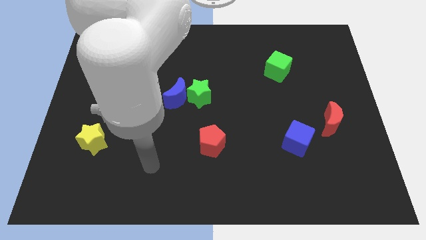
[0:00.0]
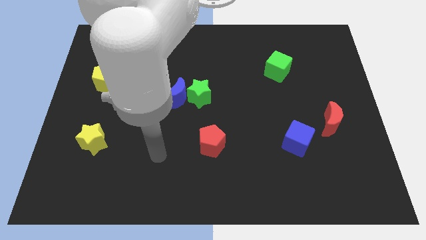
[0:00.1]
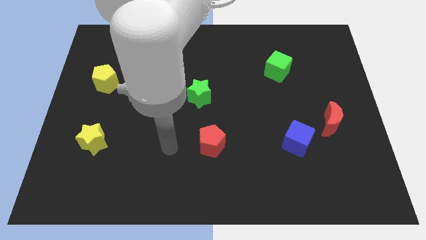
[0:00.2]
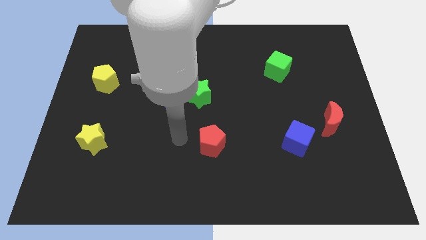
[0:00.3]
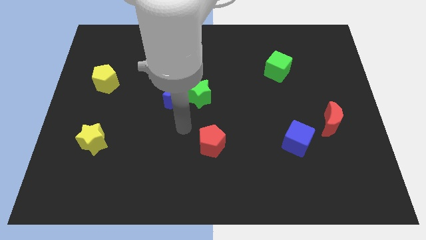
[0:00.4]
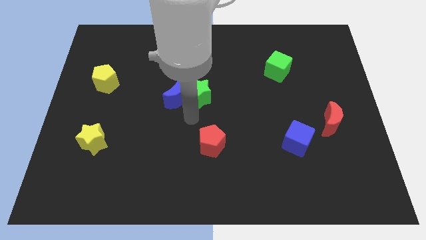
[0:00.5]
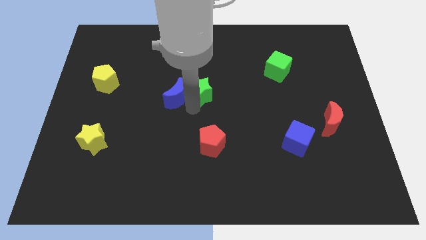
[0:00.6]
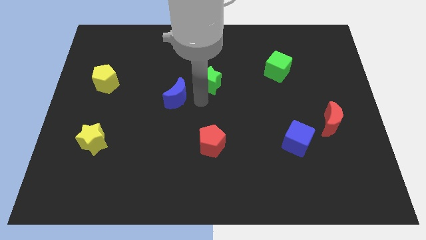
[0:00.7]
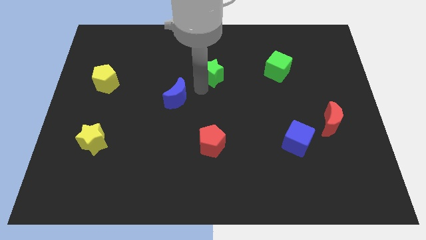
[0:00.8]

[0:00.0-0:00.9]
pull the blue moon apart from the green star

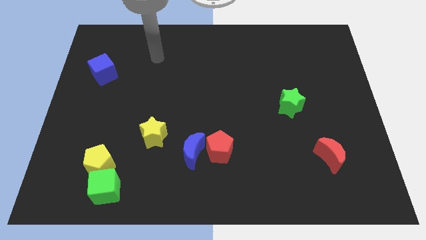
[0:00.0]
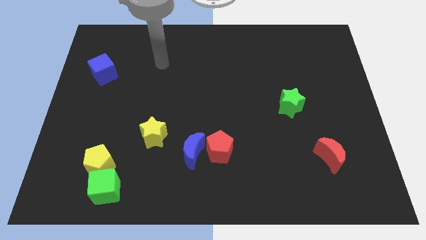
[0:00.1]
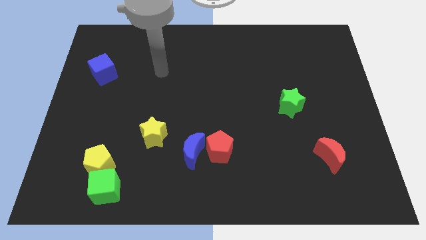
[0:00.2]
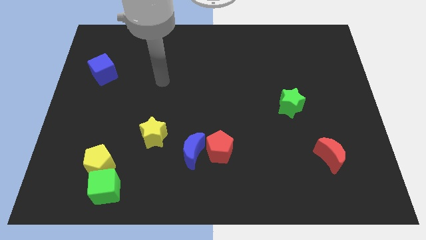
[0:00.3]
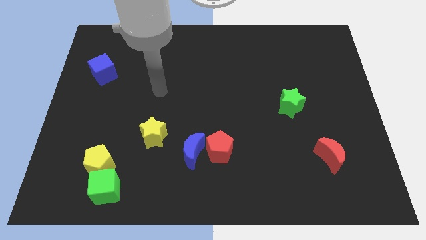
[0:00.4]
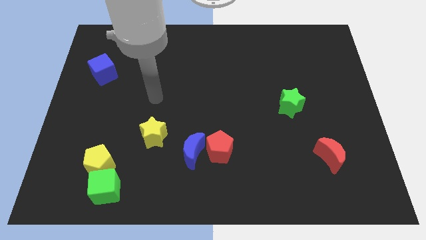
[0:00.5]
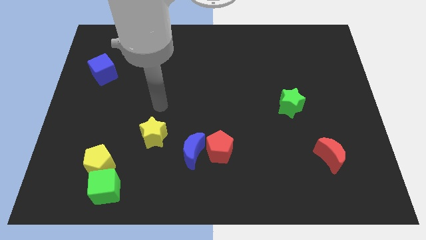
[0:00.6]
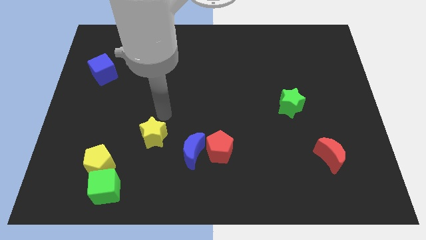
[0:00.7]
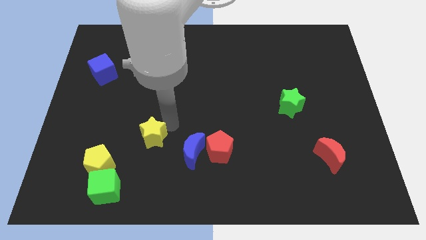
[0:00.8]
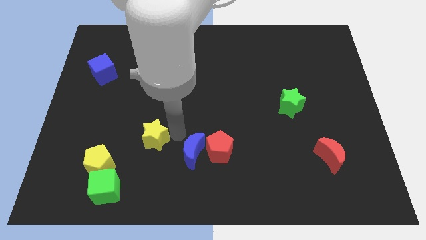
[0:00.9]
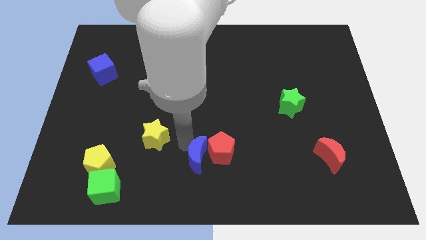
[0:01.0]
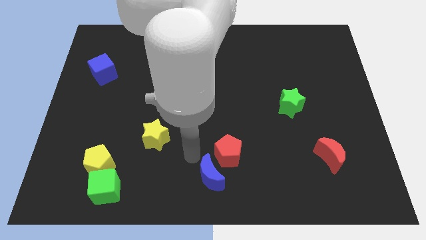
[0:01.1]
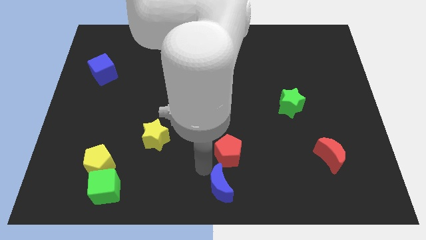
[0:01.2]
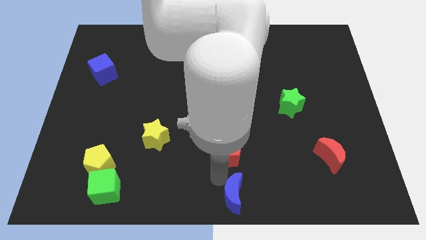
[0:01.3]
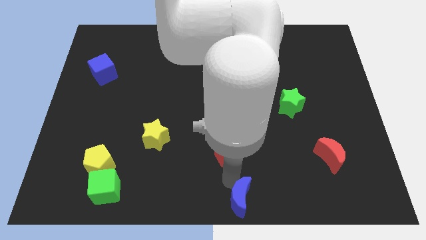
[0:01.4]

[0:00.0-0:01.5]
separate the red pentagon from the blue moon

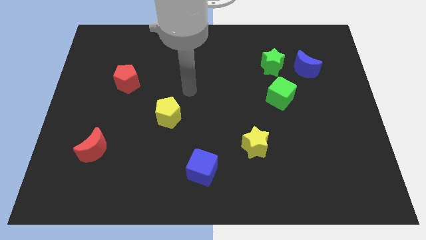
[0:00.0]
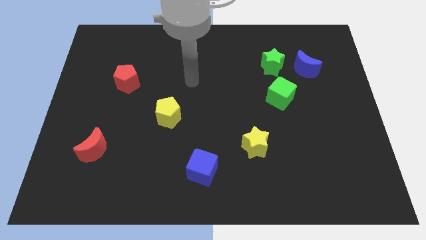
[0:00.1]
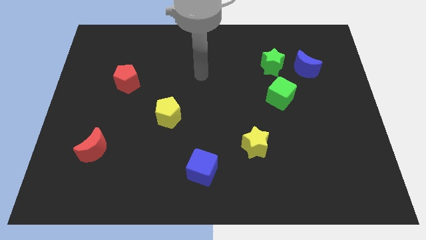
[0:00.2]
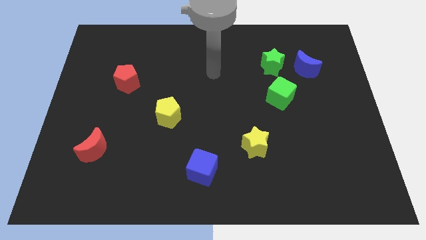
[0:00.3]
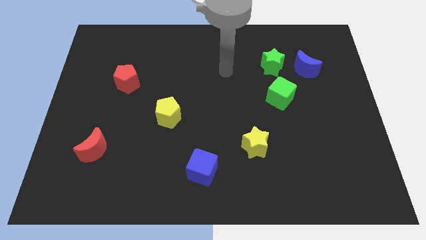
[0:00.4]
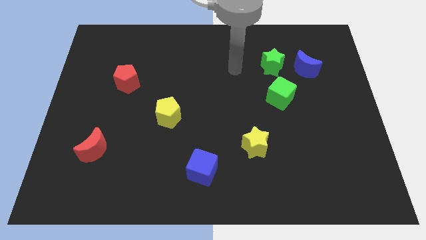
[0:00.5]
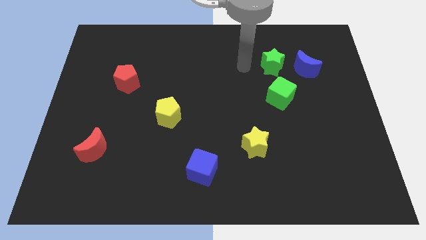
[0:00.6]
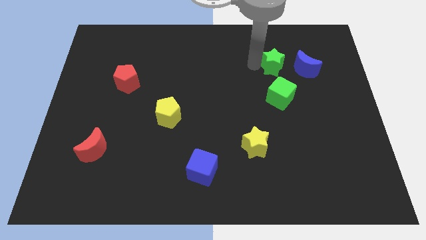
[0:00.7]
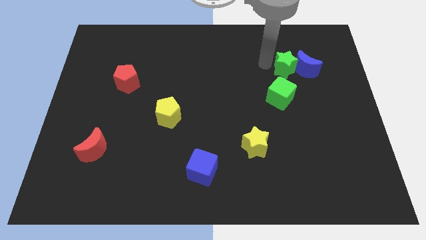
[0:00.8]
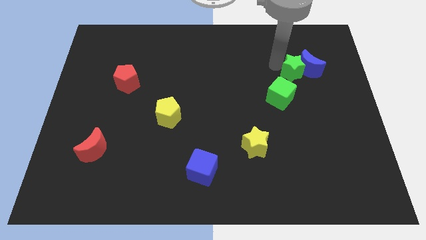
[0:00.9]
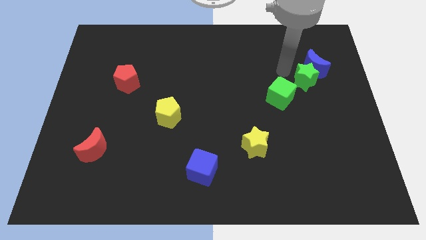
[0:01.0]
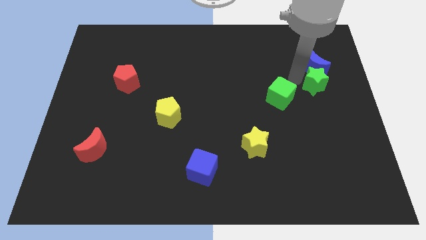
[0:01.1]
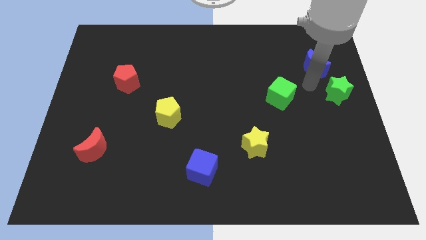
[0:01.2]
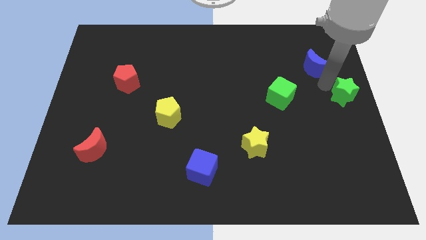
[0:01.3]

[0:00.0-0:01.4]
separate the blue moon from the green star

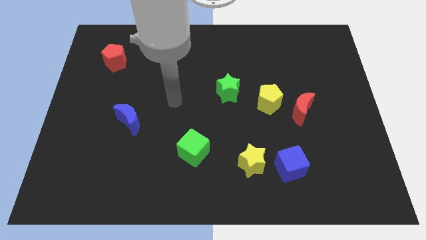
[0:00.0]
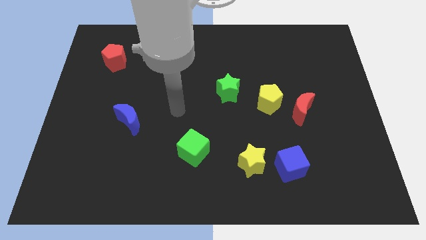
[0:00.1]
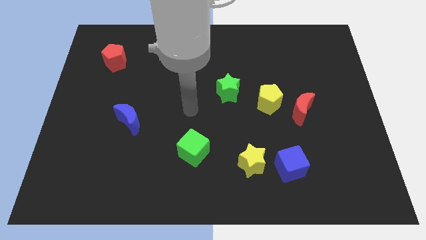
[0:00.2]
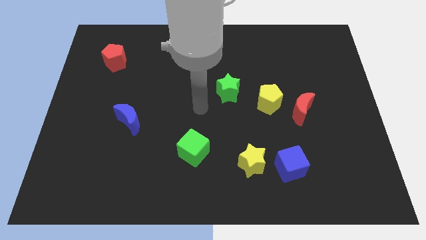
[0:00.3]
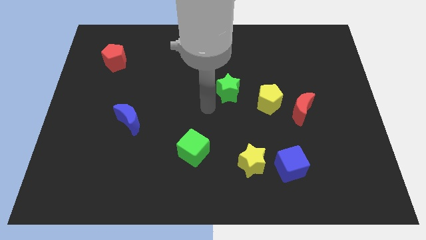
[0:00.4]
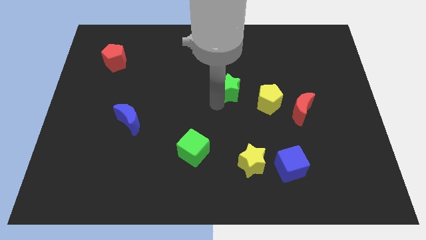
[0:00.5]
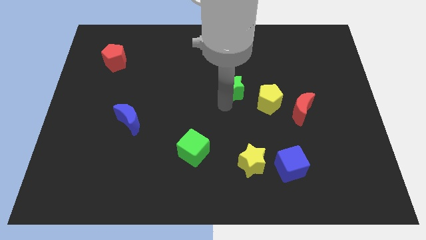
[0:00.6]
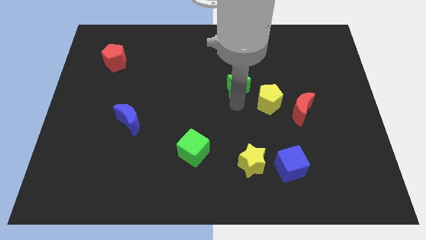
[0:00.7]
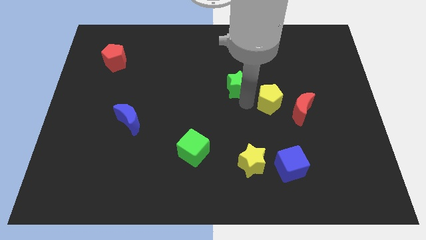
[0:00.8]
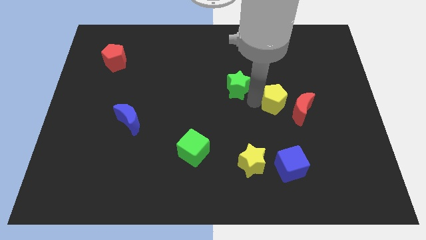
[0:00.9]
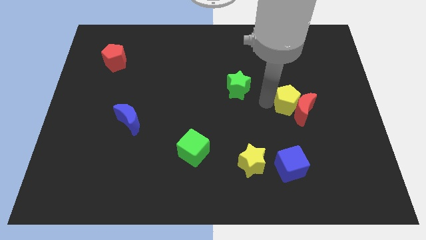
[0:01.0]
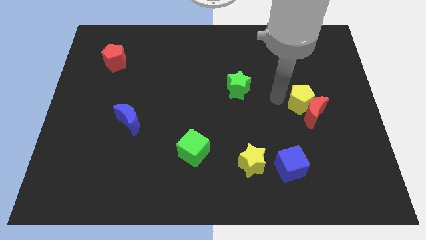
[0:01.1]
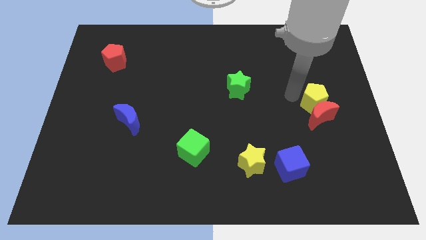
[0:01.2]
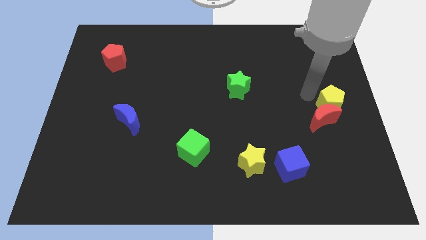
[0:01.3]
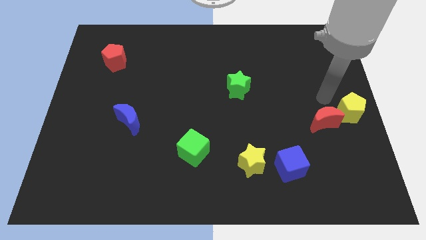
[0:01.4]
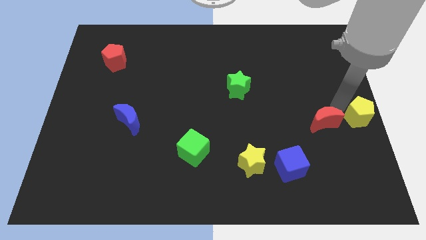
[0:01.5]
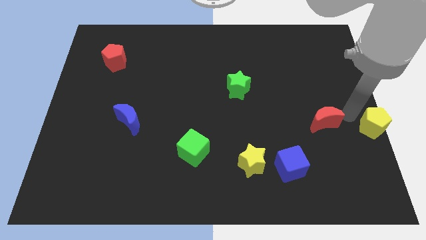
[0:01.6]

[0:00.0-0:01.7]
pull the red moon apart from the yellow pentagon

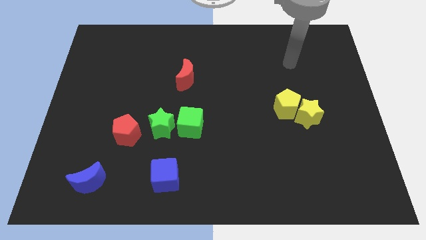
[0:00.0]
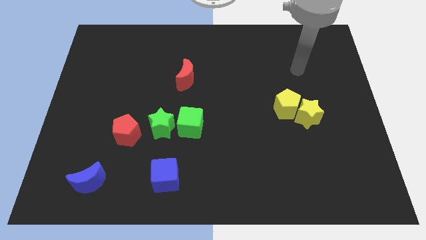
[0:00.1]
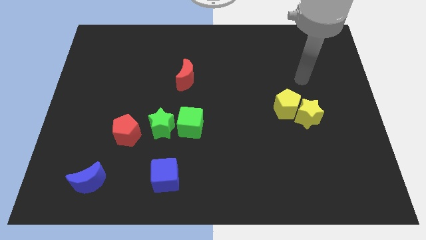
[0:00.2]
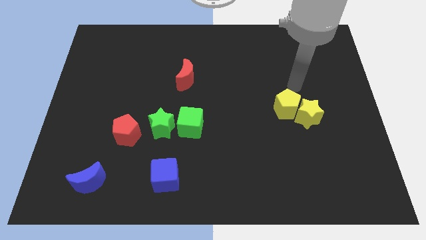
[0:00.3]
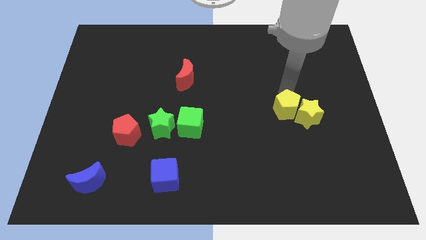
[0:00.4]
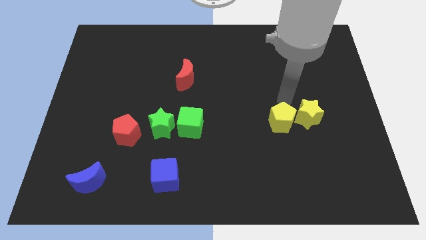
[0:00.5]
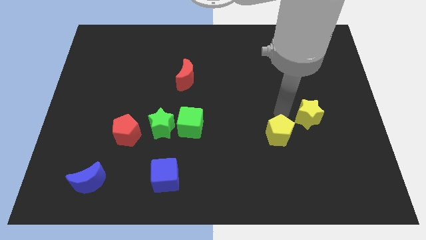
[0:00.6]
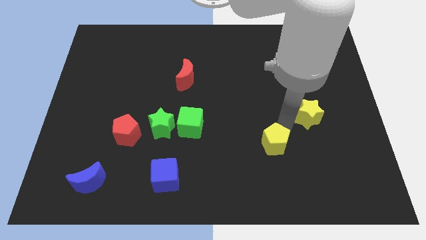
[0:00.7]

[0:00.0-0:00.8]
separate the yellow star from the yellow pentagon

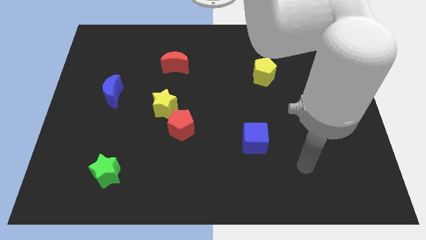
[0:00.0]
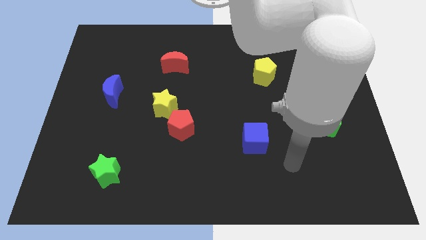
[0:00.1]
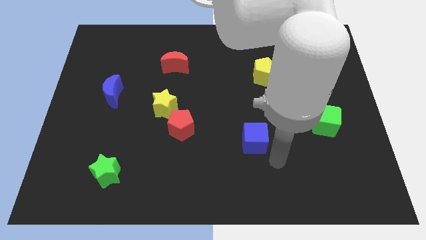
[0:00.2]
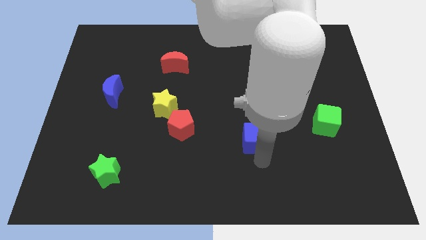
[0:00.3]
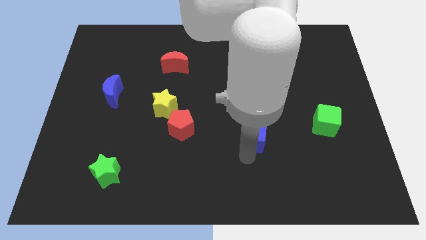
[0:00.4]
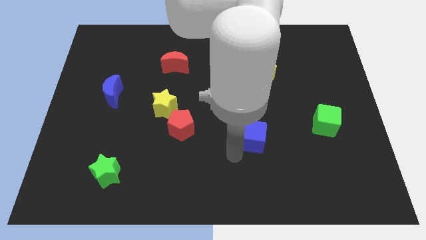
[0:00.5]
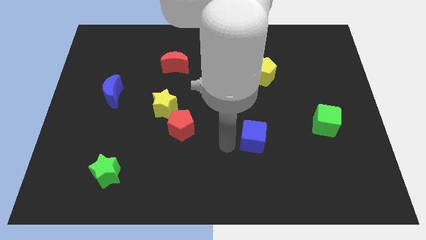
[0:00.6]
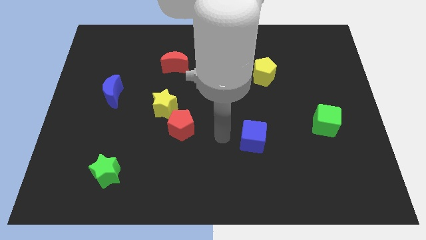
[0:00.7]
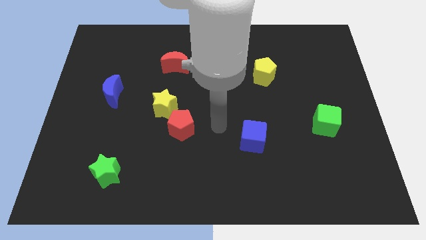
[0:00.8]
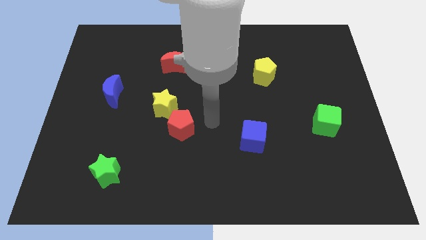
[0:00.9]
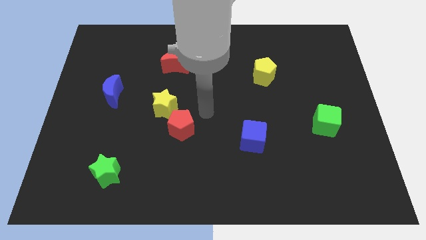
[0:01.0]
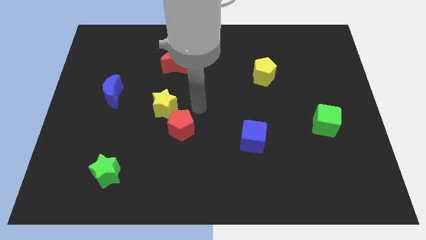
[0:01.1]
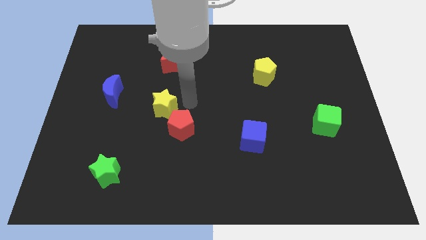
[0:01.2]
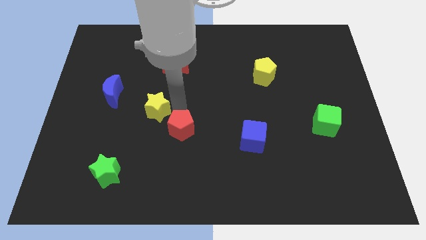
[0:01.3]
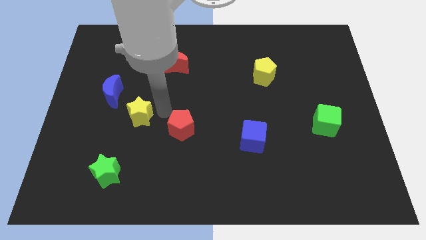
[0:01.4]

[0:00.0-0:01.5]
separate the red pentagon from the yellow star

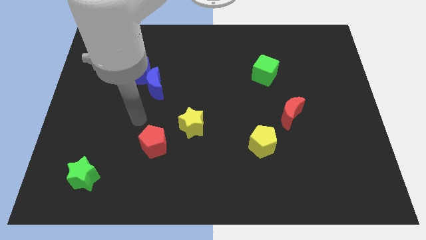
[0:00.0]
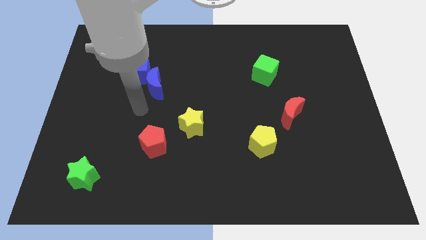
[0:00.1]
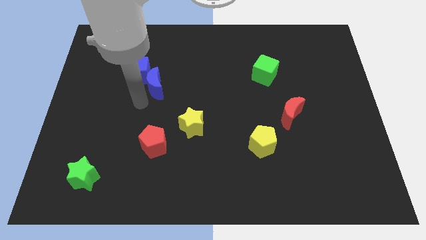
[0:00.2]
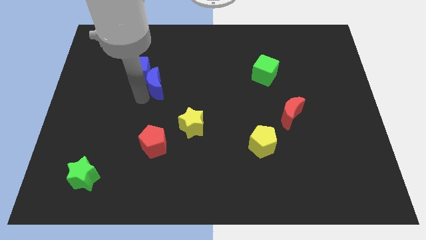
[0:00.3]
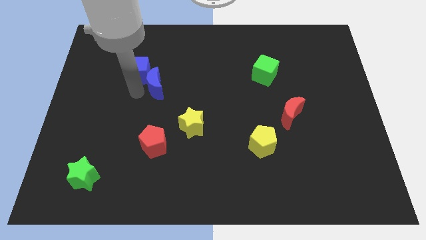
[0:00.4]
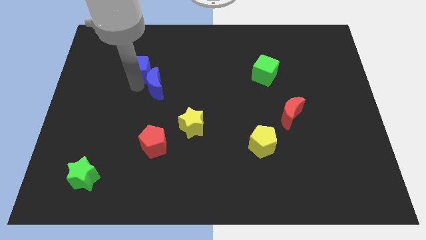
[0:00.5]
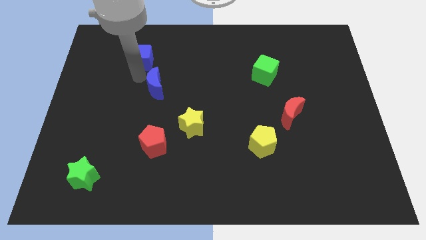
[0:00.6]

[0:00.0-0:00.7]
separate the blue moon from the blue cube

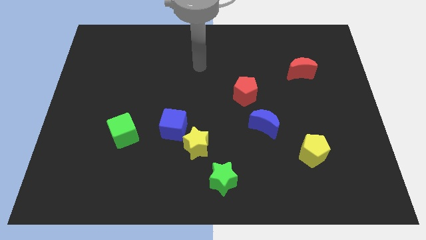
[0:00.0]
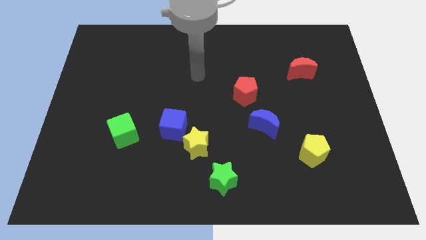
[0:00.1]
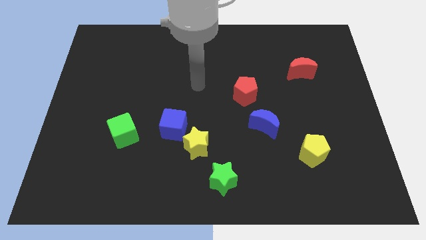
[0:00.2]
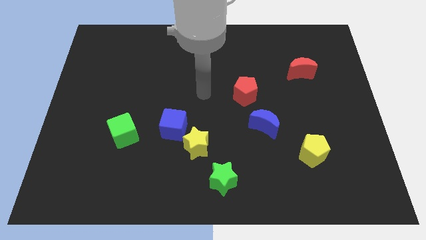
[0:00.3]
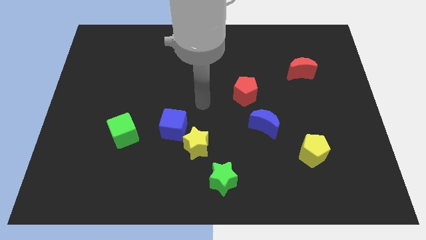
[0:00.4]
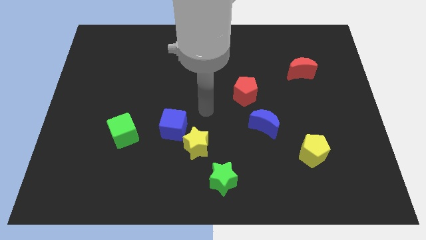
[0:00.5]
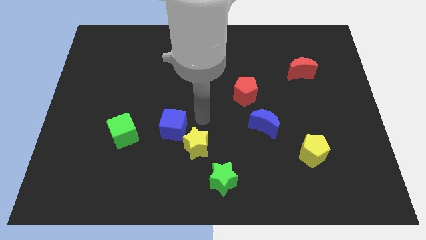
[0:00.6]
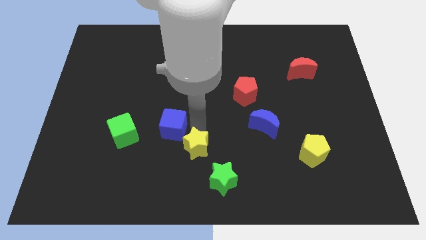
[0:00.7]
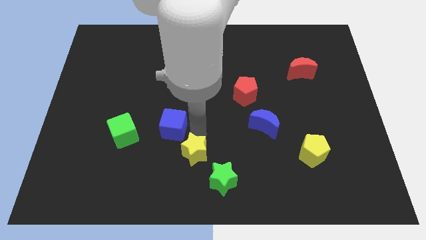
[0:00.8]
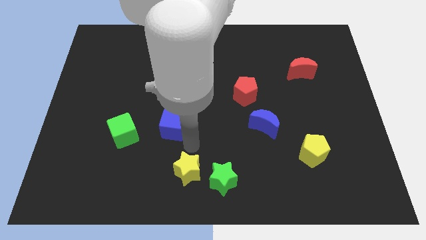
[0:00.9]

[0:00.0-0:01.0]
pull the blue cube apart from the yellow star
